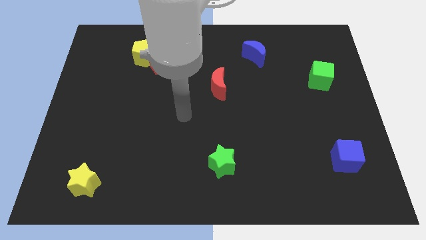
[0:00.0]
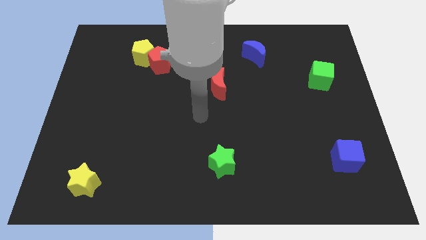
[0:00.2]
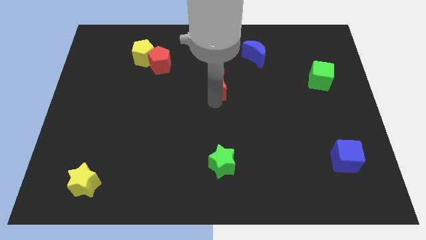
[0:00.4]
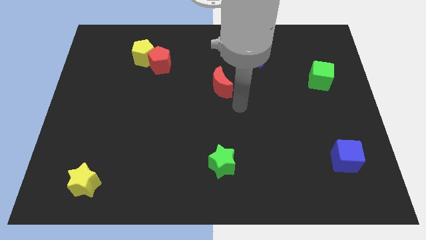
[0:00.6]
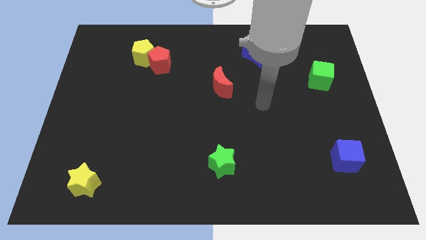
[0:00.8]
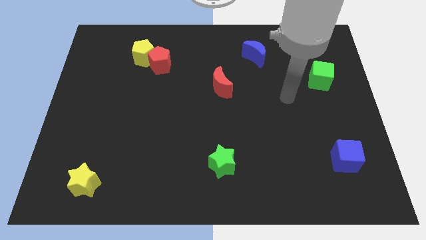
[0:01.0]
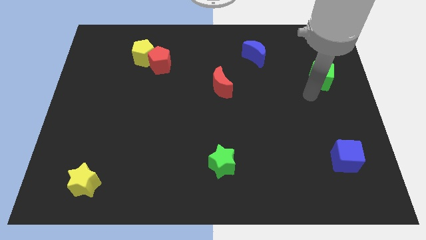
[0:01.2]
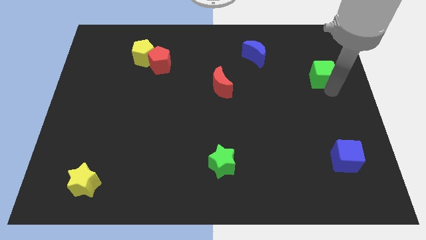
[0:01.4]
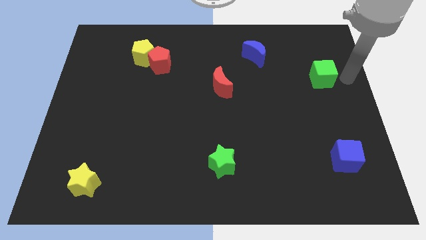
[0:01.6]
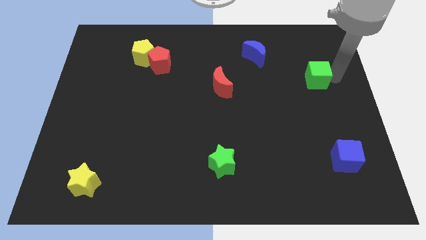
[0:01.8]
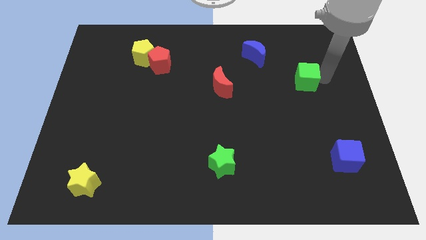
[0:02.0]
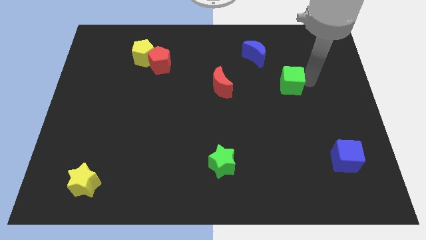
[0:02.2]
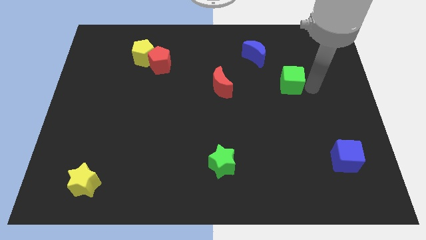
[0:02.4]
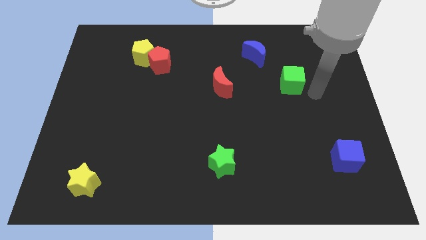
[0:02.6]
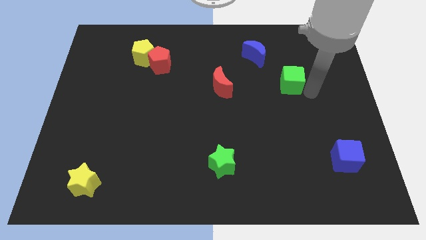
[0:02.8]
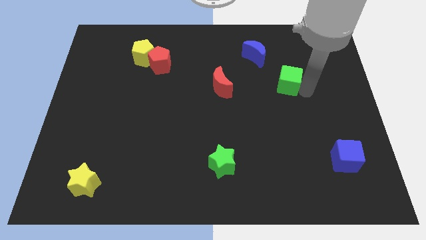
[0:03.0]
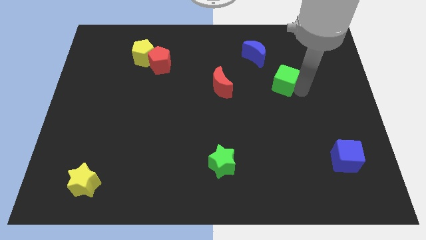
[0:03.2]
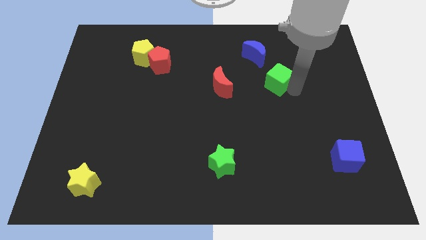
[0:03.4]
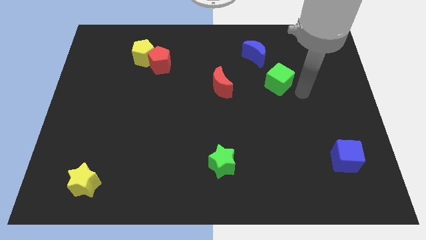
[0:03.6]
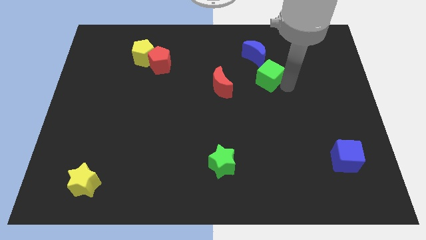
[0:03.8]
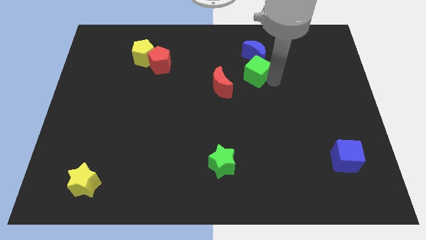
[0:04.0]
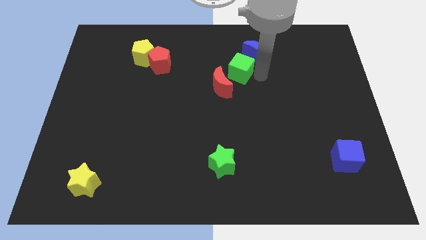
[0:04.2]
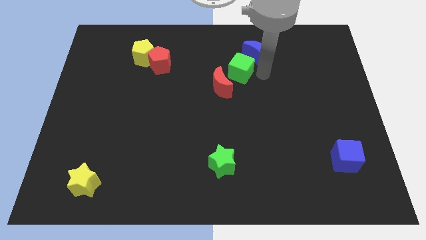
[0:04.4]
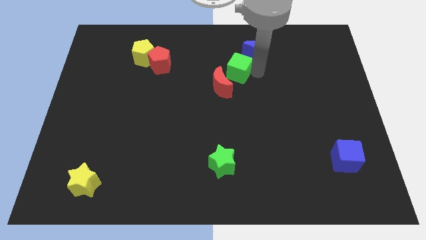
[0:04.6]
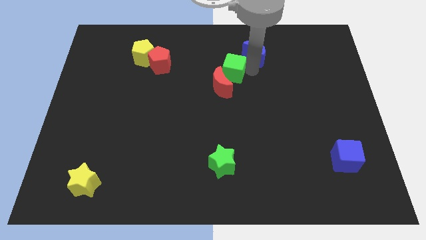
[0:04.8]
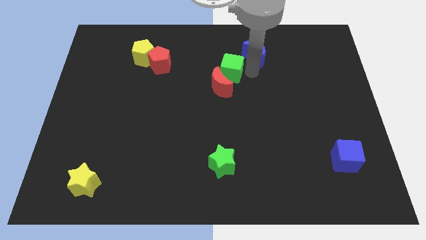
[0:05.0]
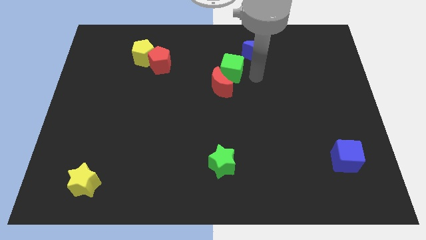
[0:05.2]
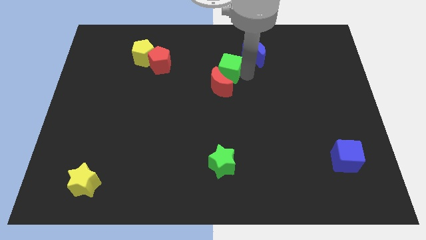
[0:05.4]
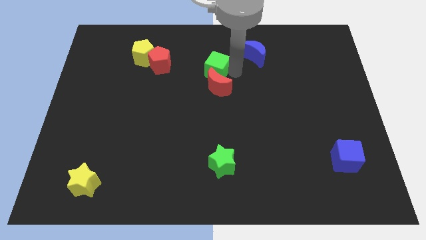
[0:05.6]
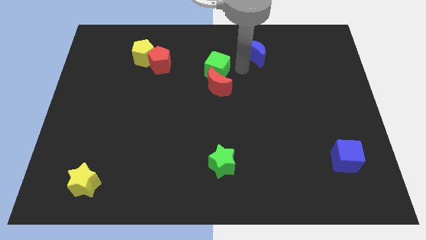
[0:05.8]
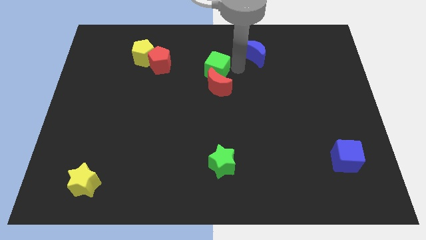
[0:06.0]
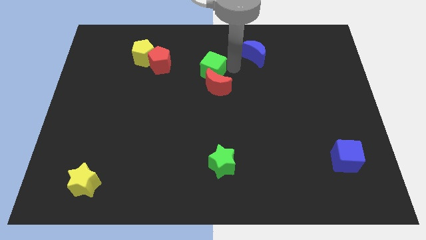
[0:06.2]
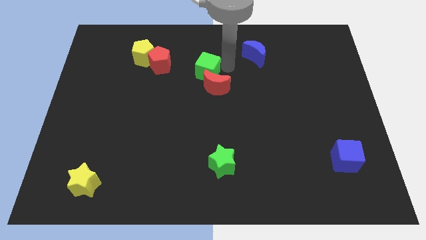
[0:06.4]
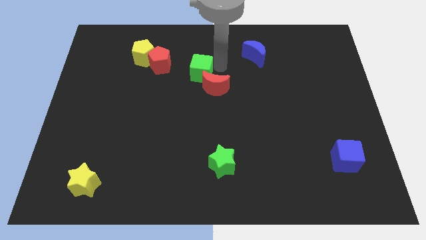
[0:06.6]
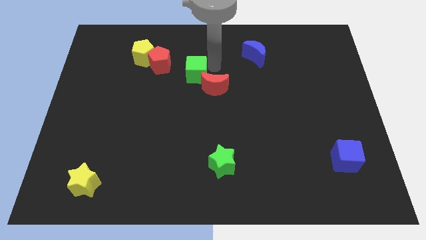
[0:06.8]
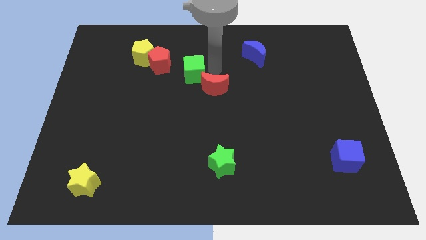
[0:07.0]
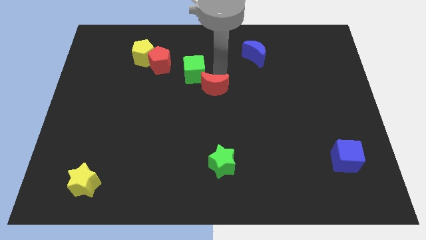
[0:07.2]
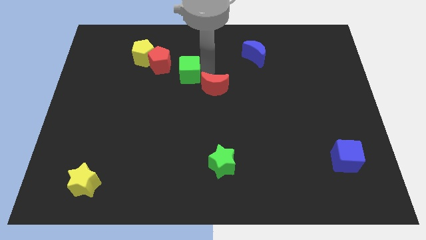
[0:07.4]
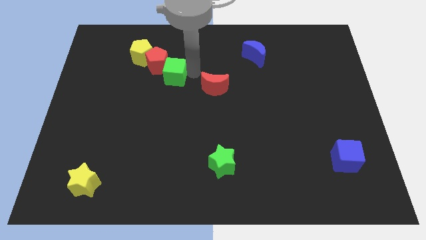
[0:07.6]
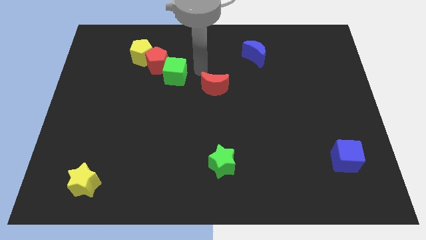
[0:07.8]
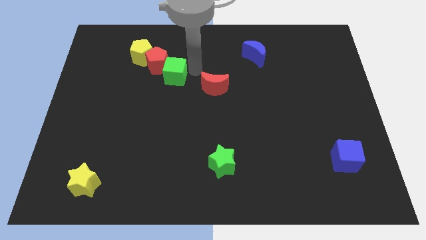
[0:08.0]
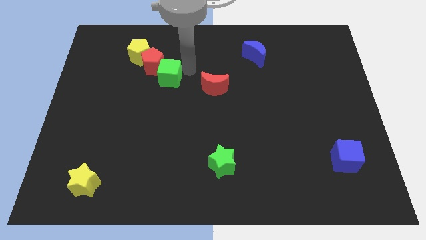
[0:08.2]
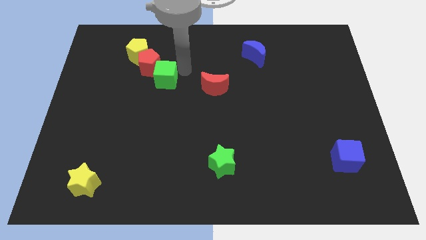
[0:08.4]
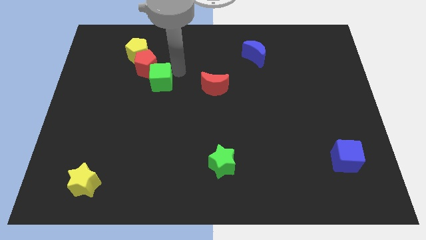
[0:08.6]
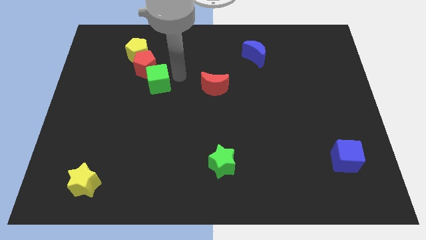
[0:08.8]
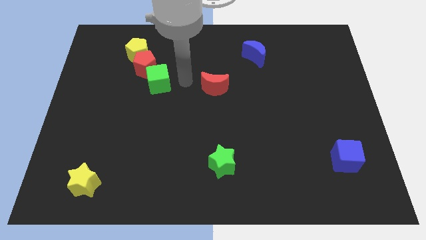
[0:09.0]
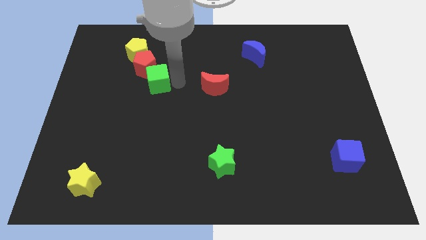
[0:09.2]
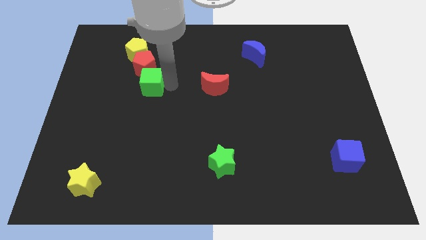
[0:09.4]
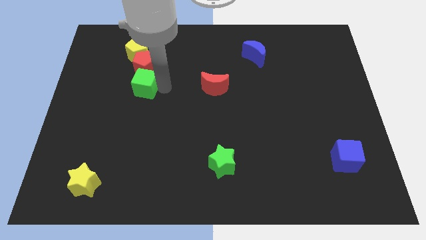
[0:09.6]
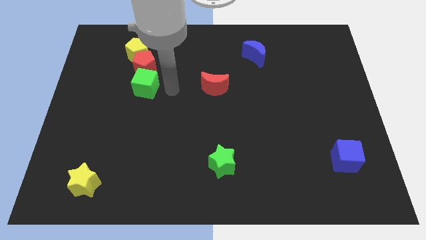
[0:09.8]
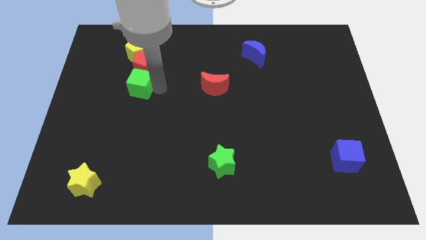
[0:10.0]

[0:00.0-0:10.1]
move the green cube diagonally down and to the left of the red pentagon
